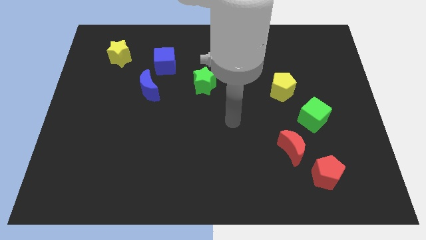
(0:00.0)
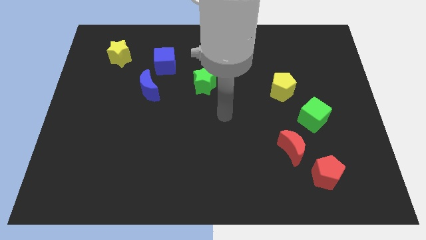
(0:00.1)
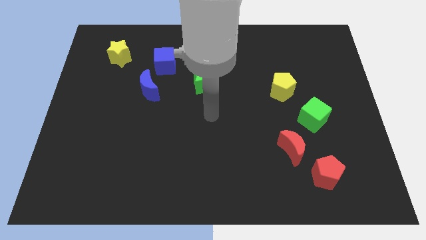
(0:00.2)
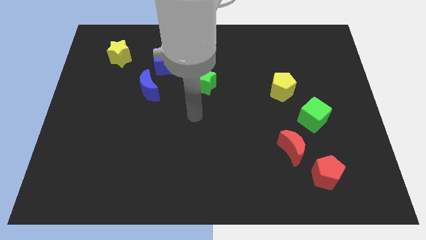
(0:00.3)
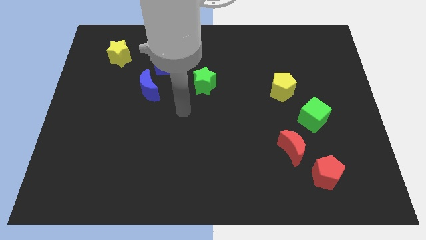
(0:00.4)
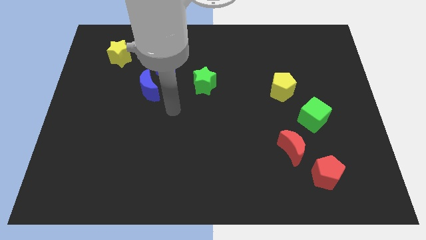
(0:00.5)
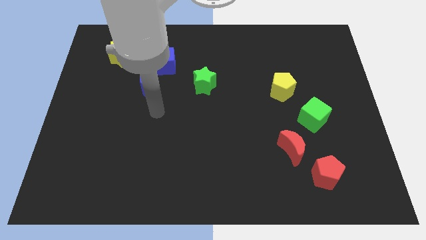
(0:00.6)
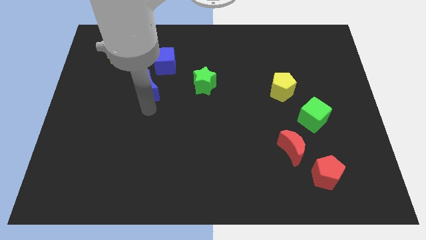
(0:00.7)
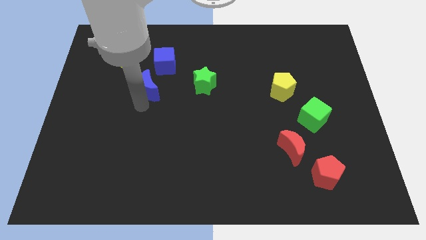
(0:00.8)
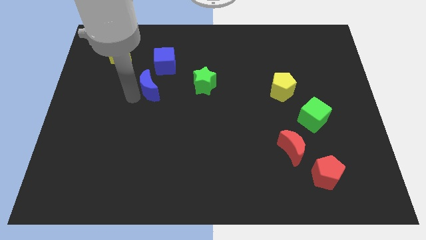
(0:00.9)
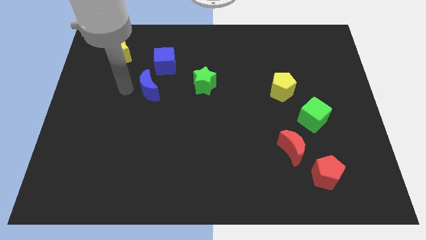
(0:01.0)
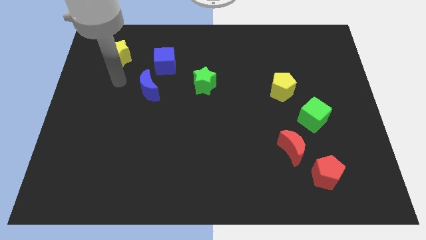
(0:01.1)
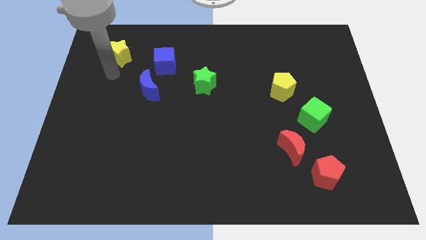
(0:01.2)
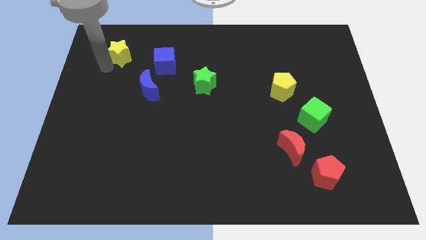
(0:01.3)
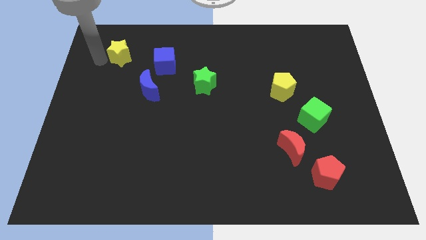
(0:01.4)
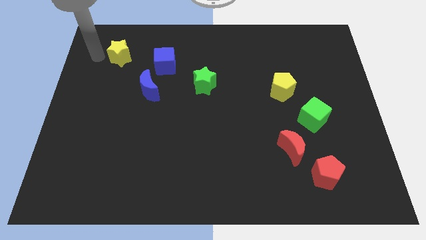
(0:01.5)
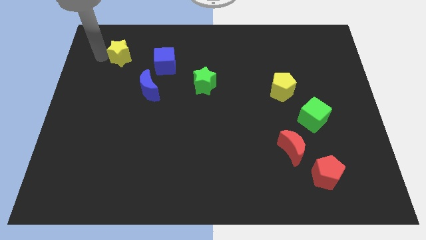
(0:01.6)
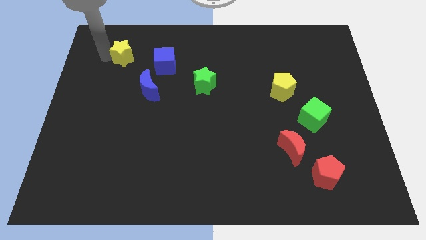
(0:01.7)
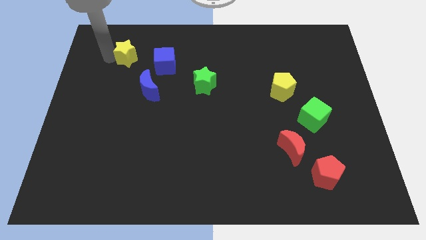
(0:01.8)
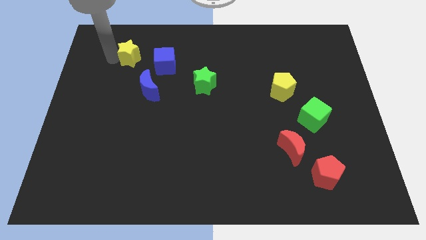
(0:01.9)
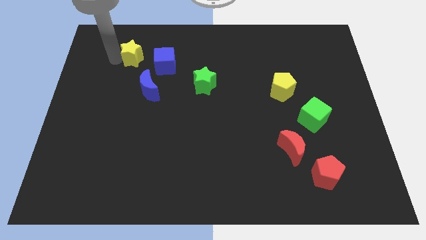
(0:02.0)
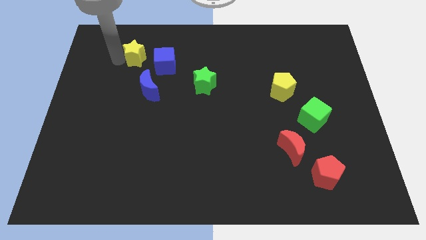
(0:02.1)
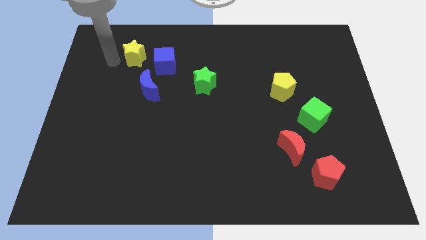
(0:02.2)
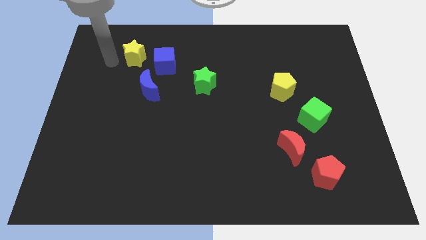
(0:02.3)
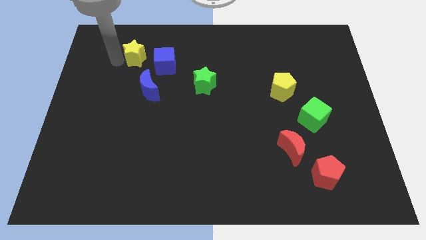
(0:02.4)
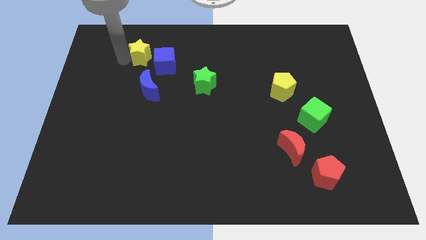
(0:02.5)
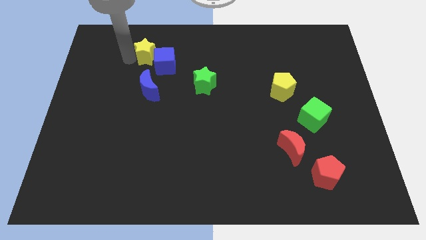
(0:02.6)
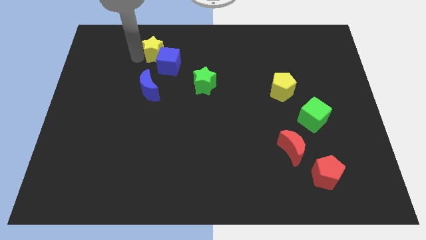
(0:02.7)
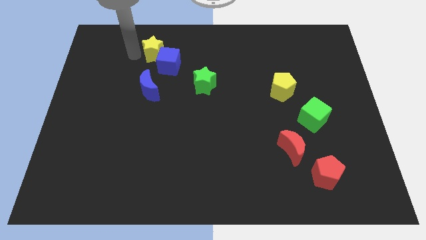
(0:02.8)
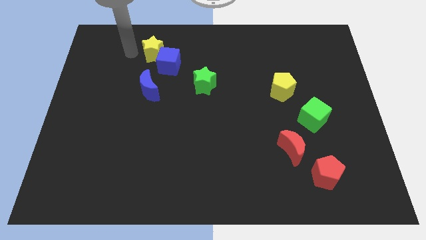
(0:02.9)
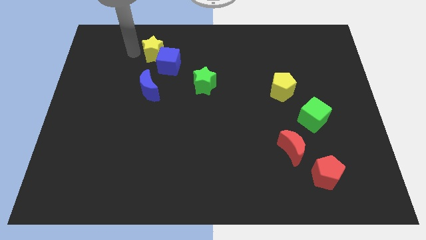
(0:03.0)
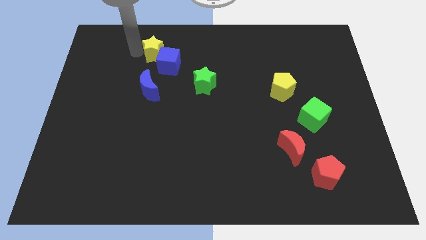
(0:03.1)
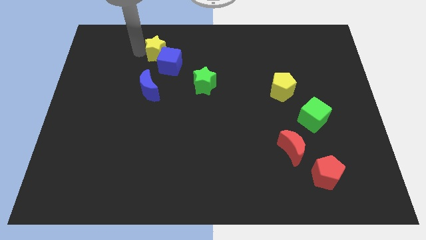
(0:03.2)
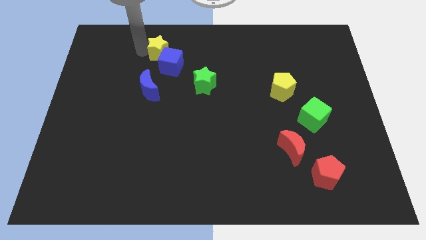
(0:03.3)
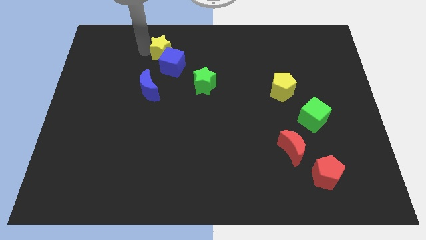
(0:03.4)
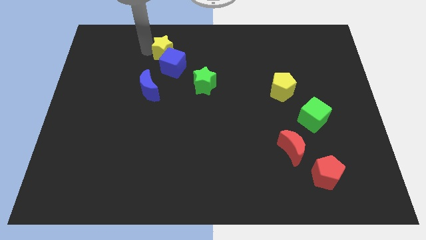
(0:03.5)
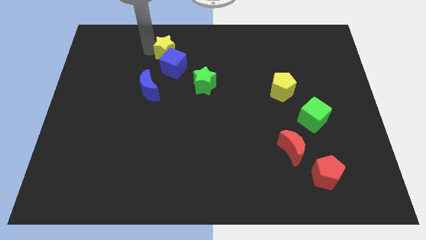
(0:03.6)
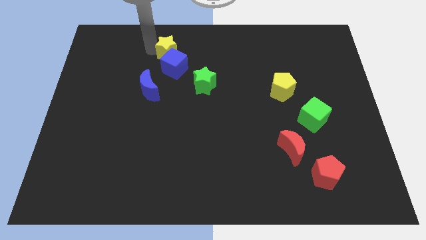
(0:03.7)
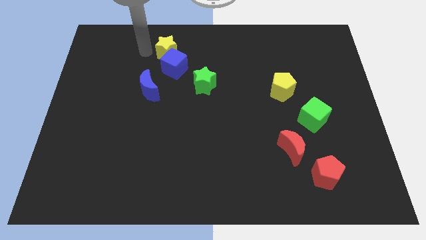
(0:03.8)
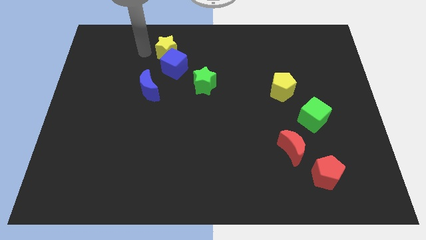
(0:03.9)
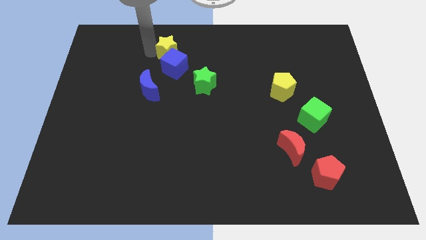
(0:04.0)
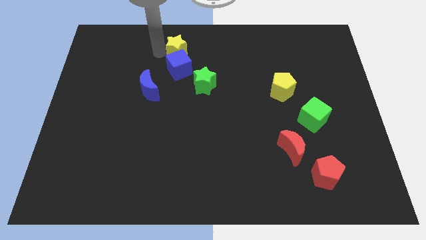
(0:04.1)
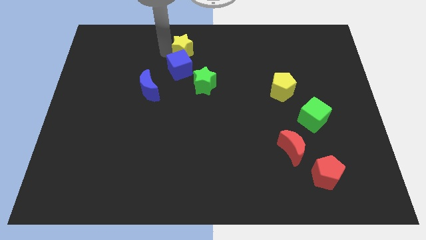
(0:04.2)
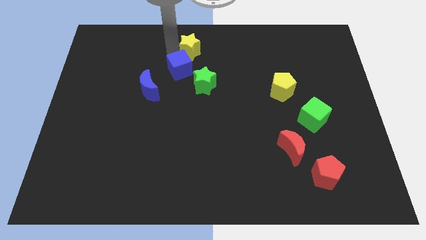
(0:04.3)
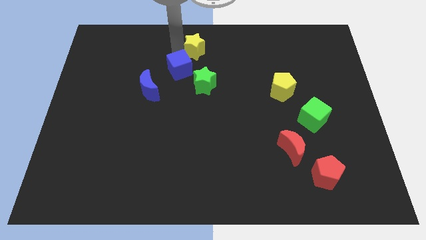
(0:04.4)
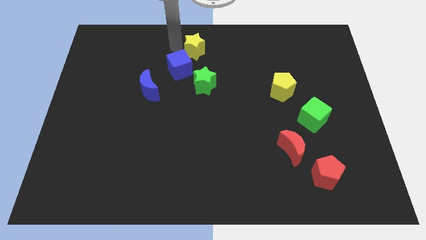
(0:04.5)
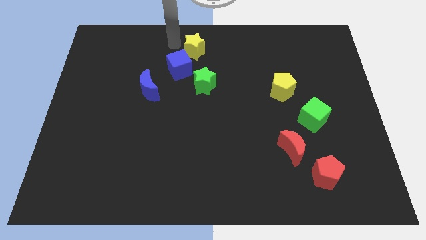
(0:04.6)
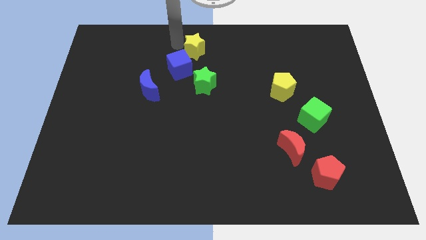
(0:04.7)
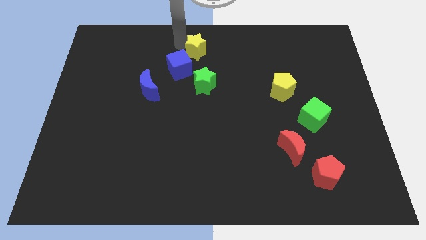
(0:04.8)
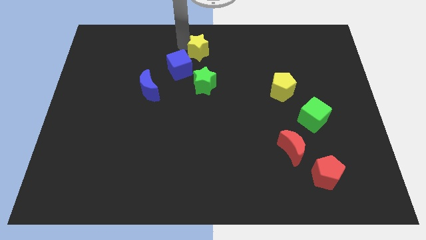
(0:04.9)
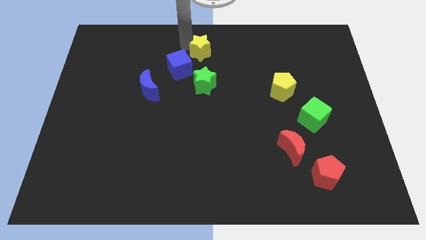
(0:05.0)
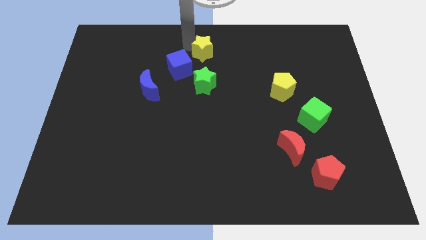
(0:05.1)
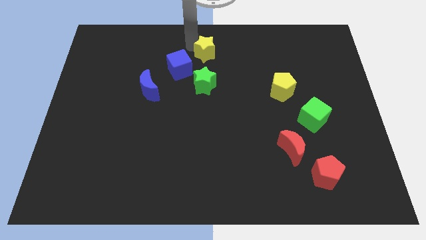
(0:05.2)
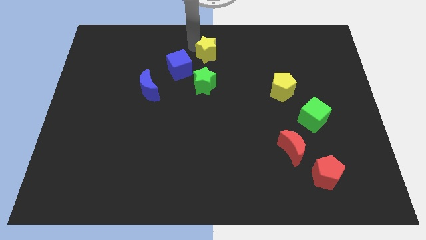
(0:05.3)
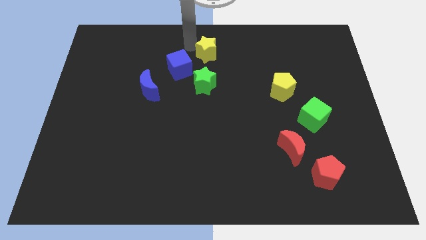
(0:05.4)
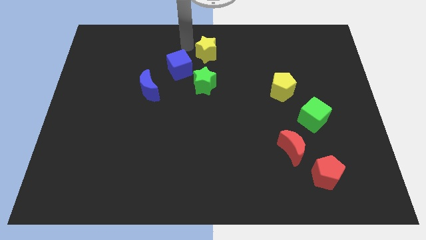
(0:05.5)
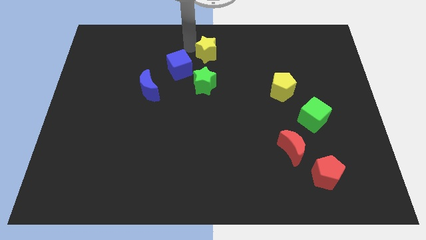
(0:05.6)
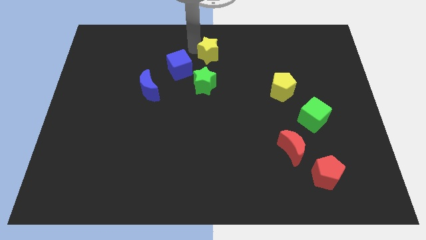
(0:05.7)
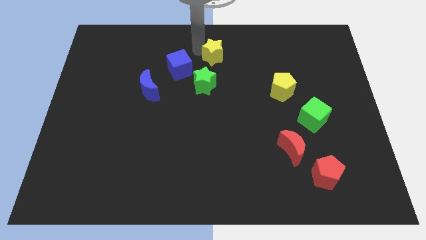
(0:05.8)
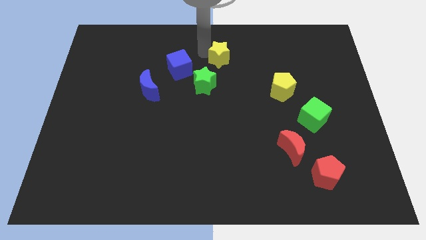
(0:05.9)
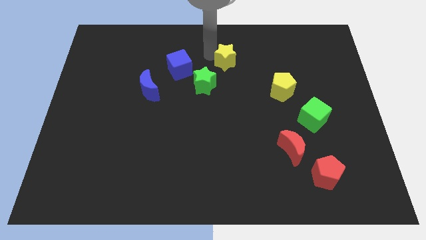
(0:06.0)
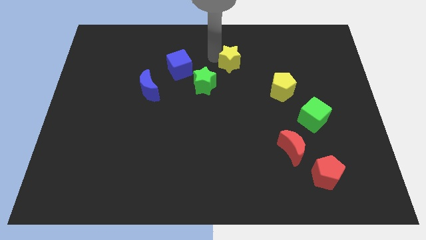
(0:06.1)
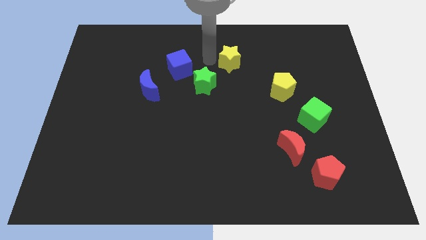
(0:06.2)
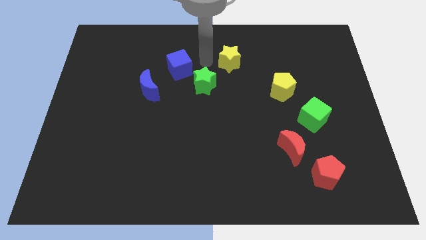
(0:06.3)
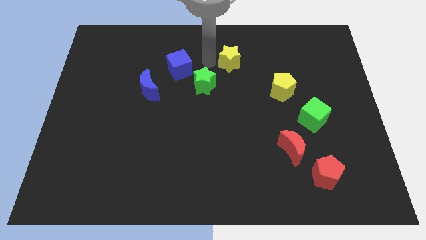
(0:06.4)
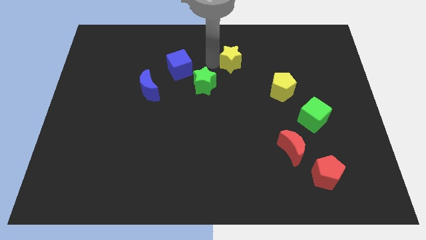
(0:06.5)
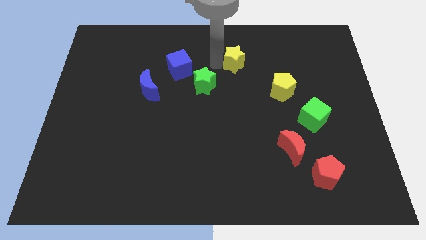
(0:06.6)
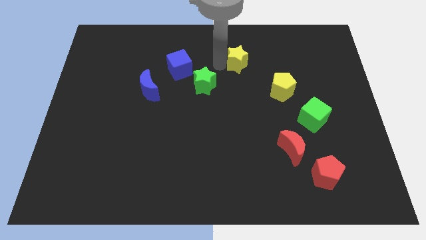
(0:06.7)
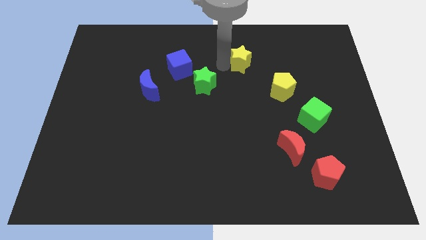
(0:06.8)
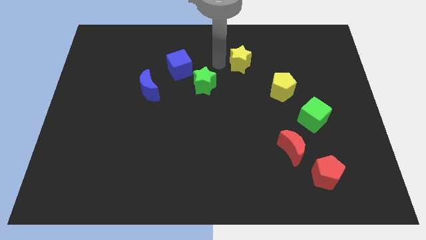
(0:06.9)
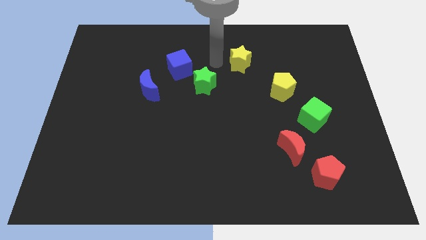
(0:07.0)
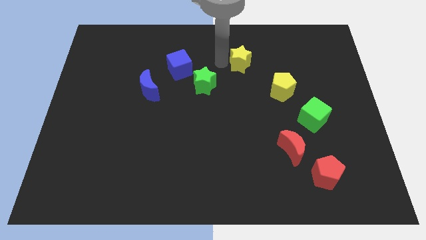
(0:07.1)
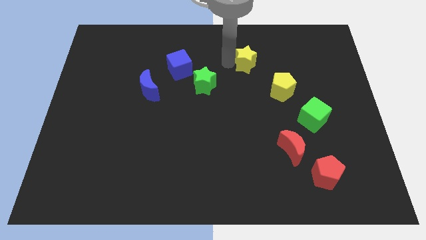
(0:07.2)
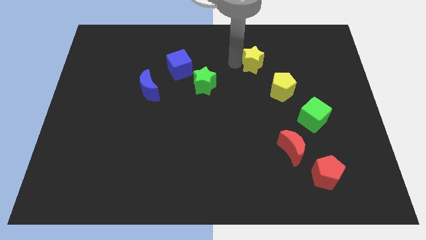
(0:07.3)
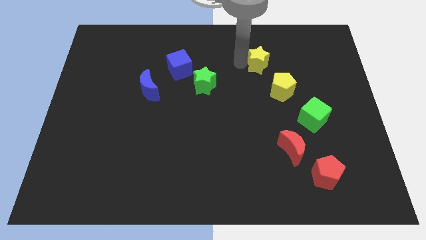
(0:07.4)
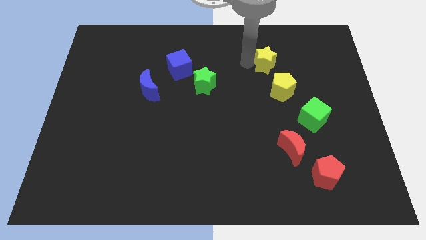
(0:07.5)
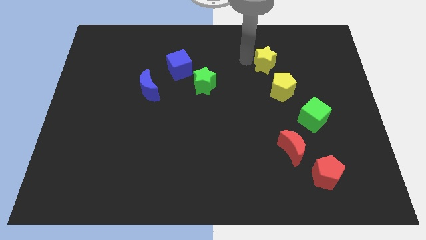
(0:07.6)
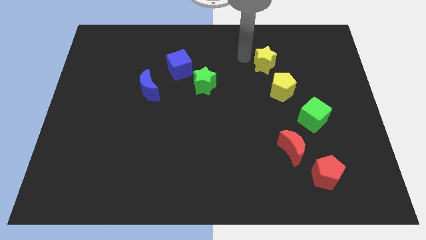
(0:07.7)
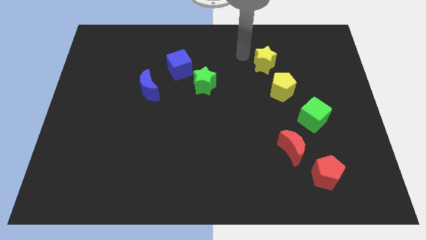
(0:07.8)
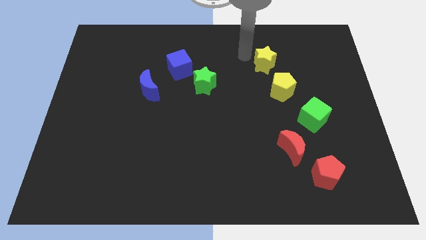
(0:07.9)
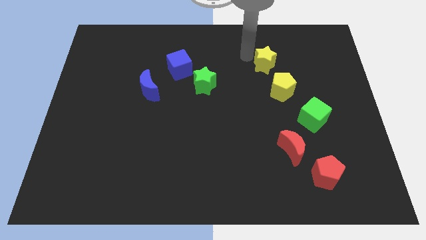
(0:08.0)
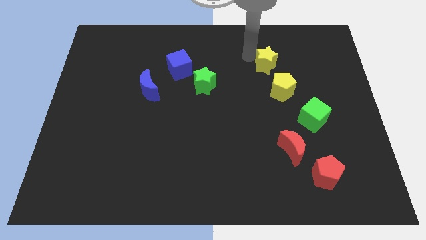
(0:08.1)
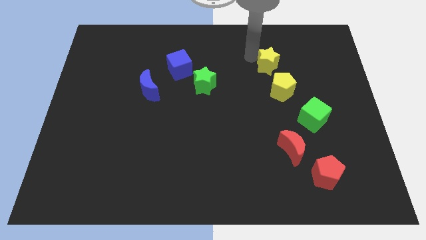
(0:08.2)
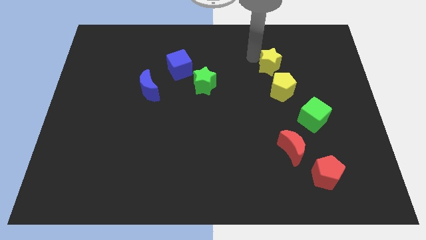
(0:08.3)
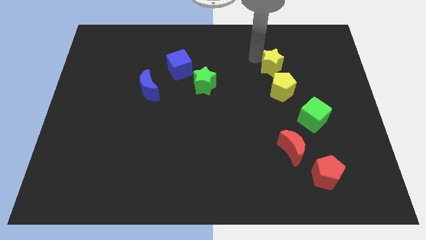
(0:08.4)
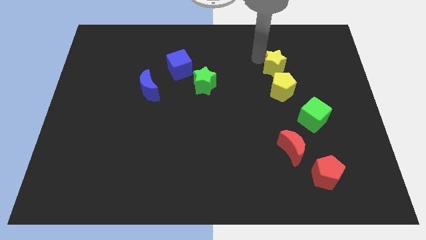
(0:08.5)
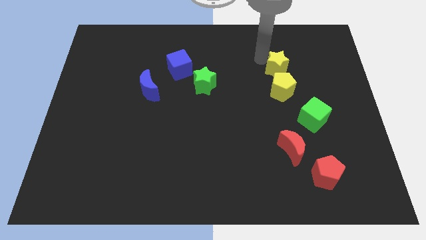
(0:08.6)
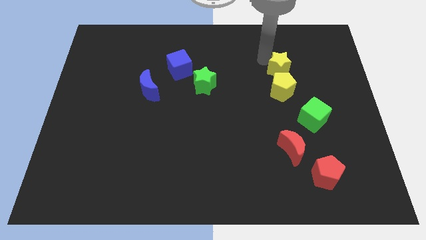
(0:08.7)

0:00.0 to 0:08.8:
put the yellow star diagonally up and to the right of the yellow pentagon

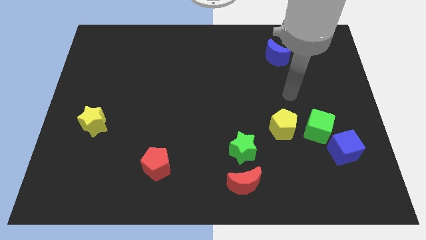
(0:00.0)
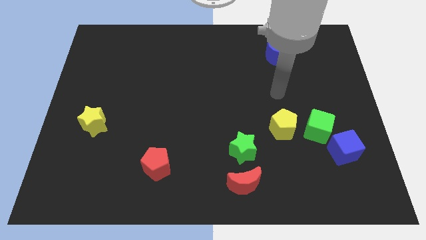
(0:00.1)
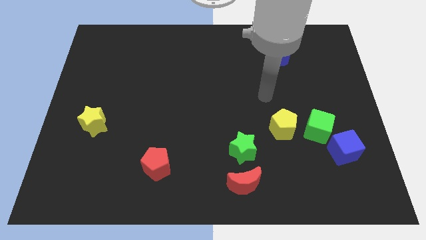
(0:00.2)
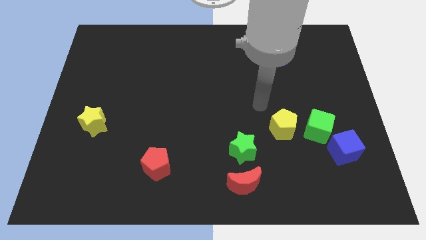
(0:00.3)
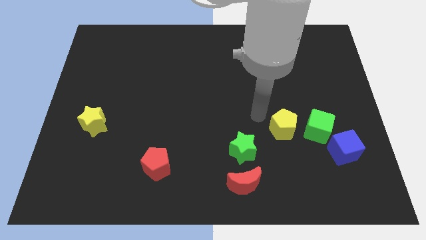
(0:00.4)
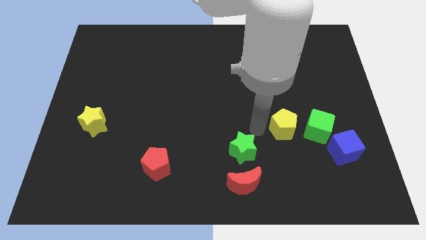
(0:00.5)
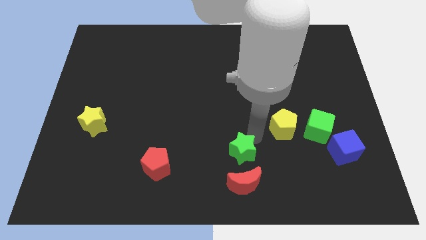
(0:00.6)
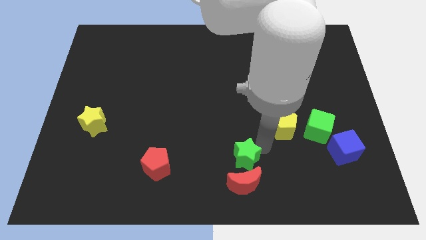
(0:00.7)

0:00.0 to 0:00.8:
slide the red moon diagonally down and to the right of the green star
